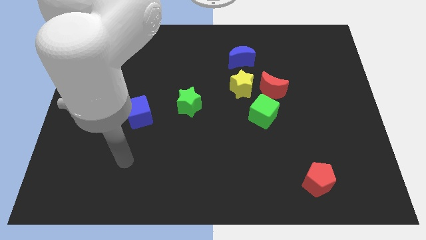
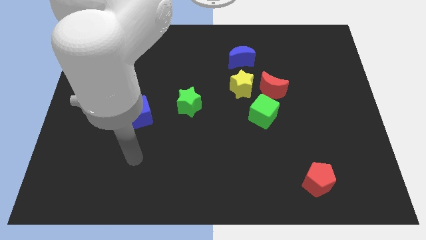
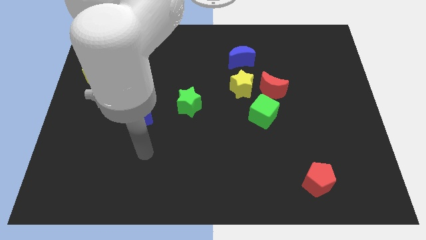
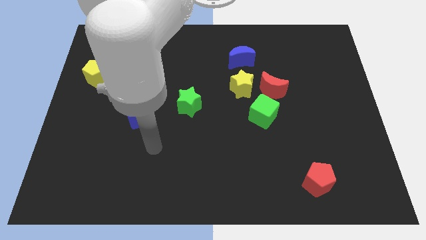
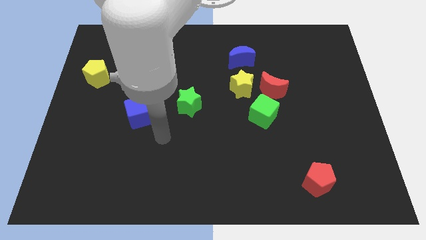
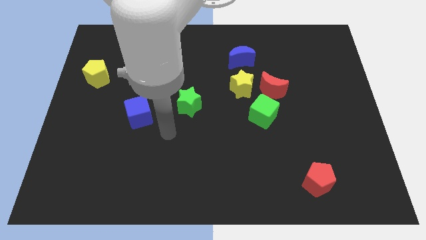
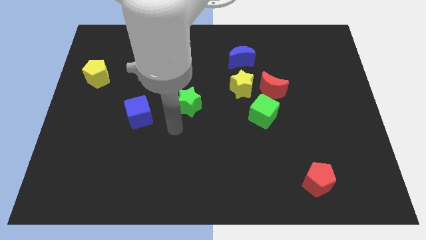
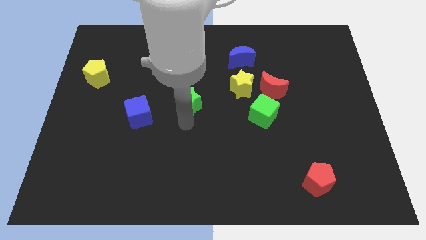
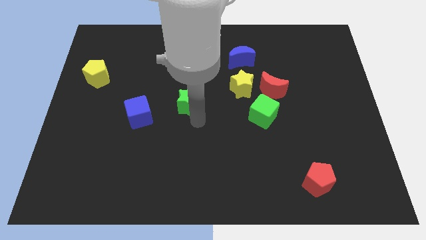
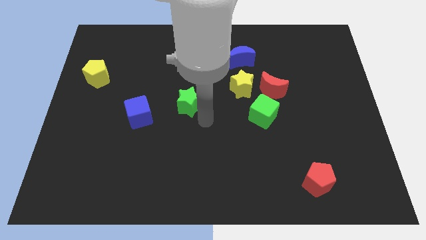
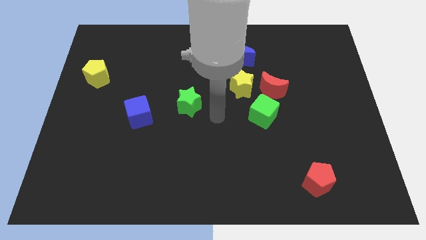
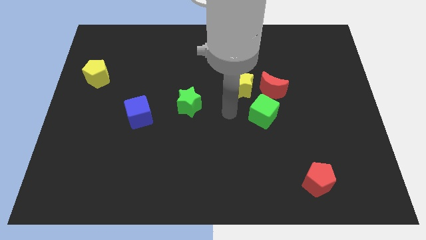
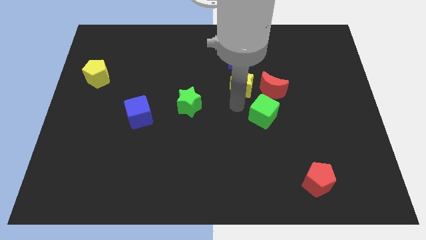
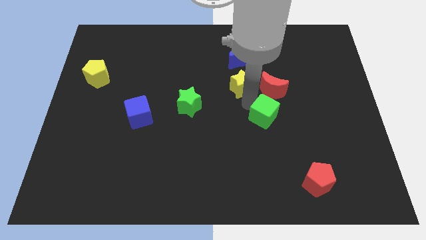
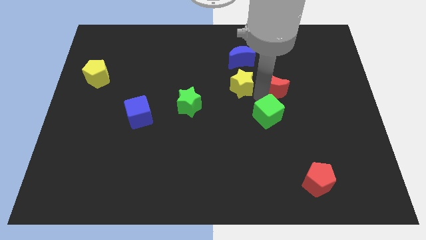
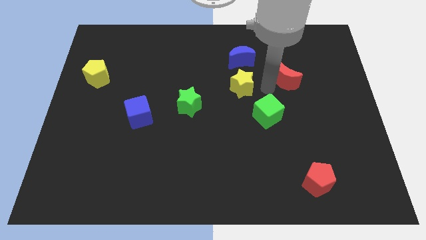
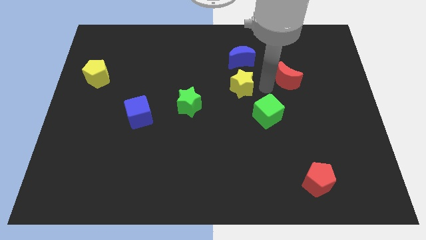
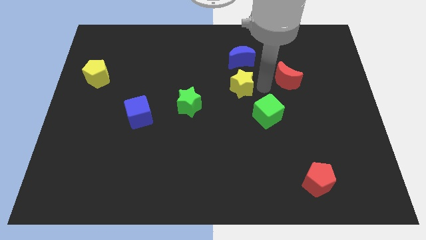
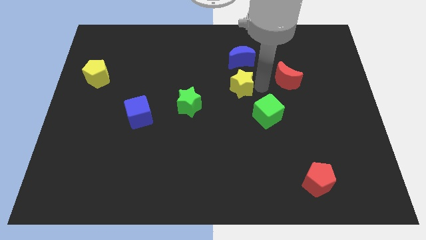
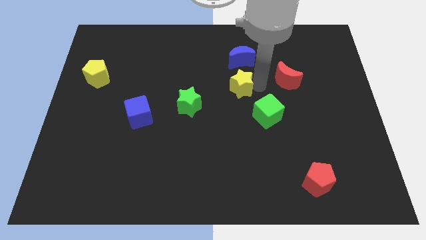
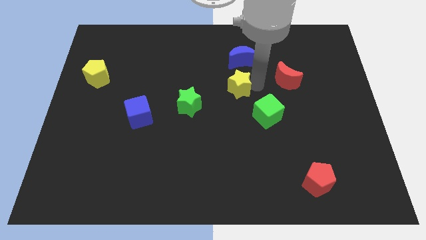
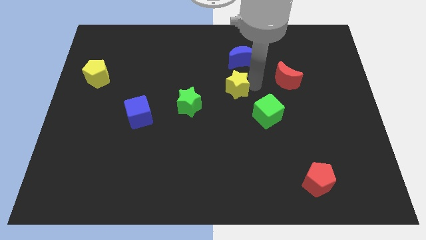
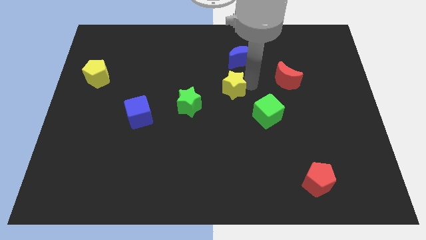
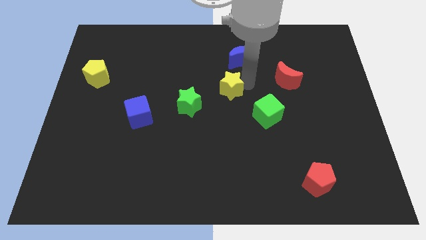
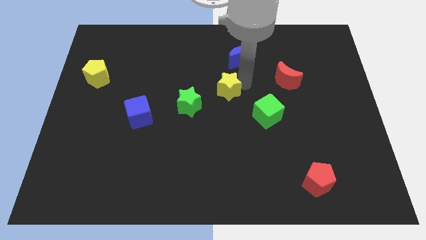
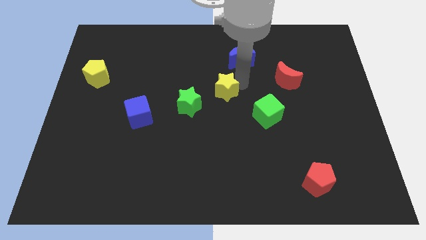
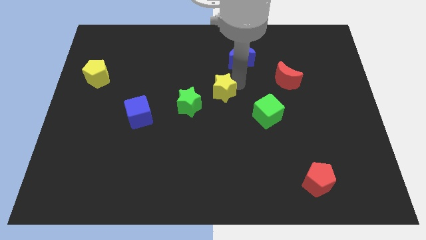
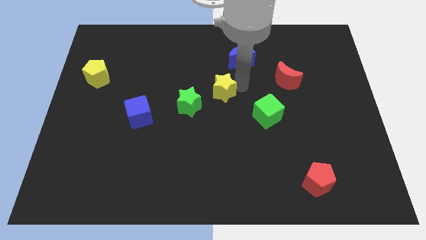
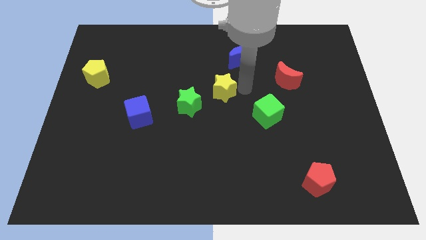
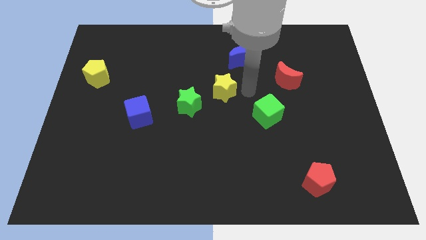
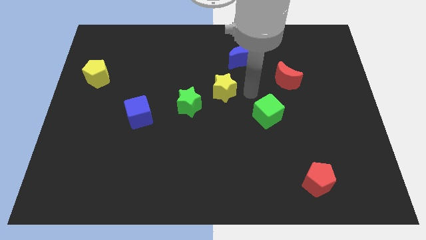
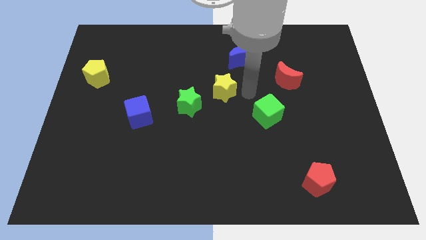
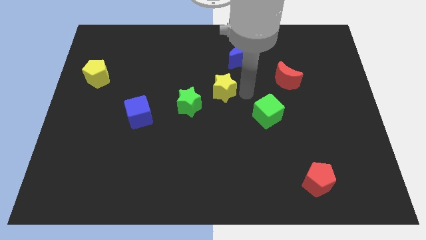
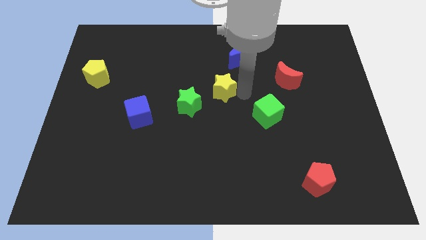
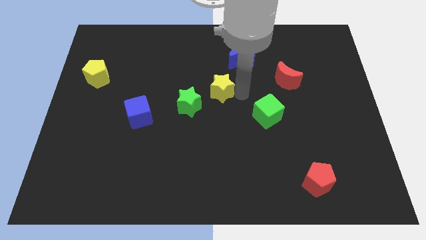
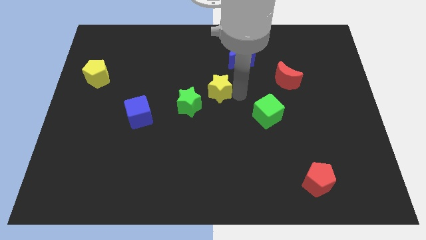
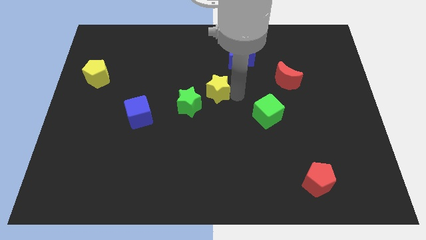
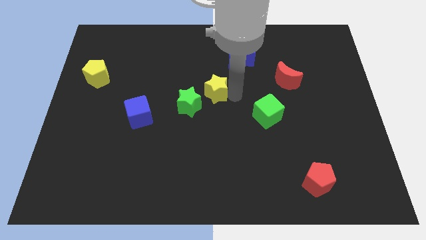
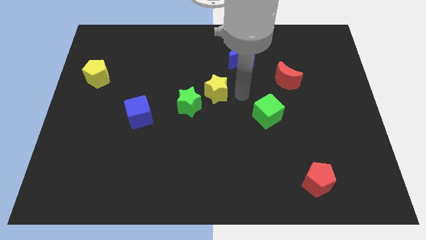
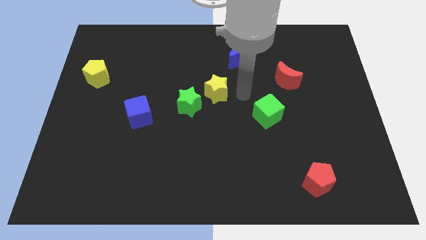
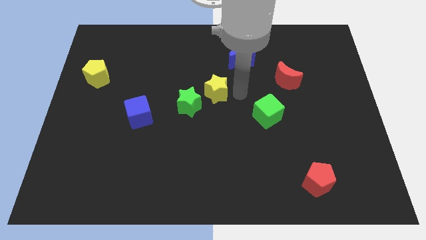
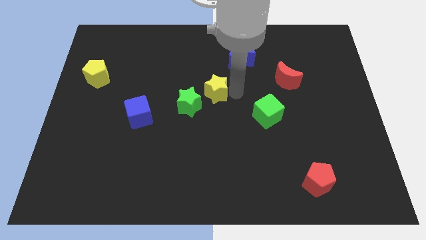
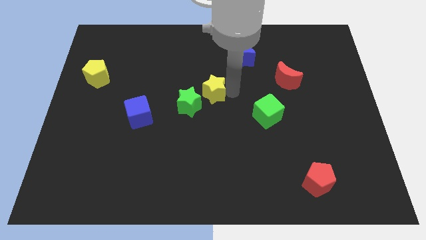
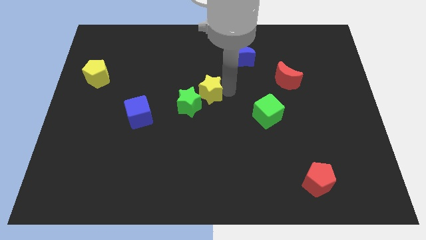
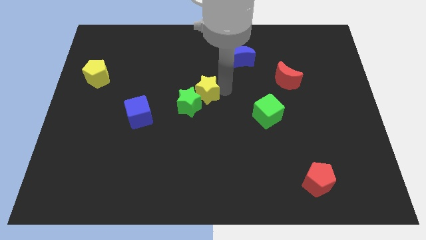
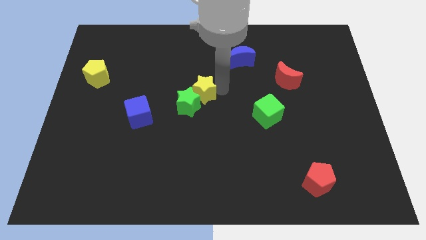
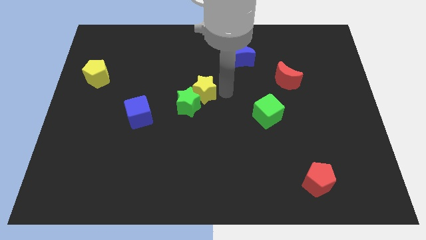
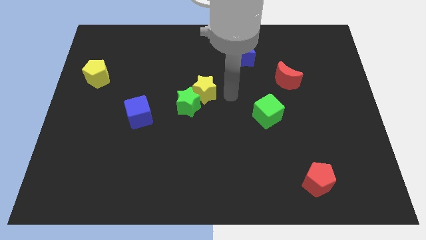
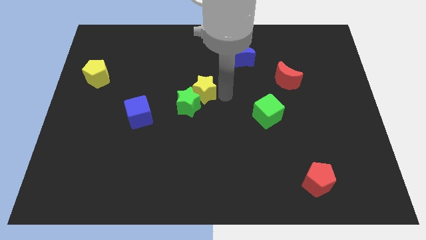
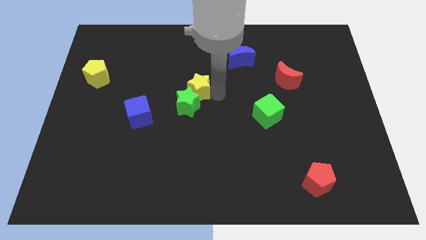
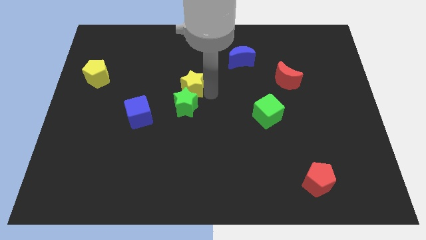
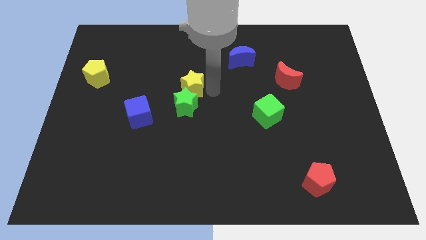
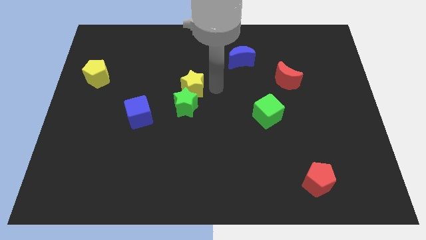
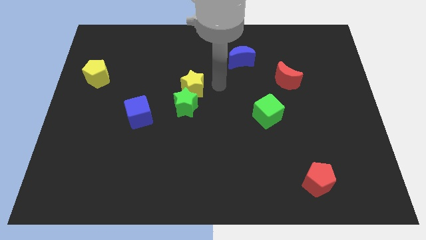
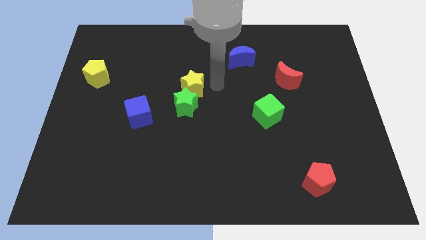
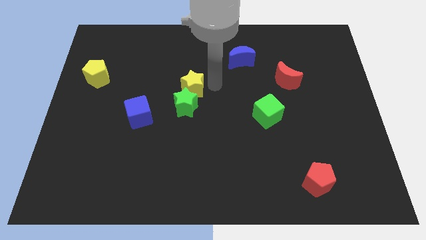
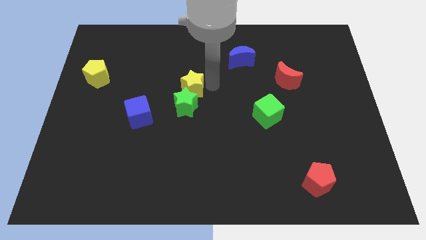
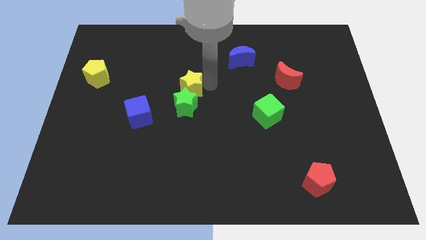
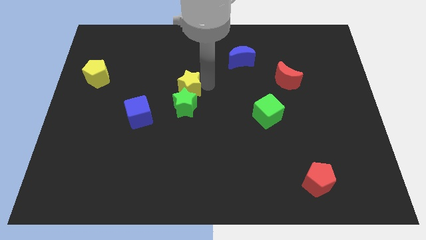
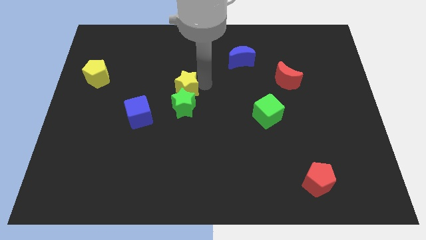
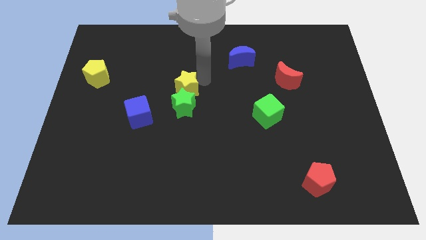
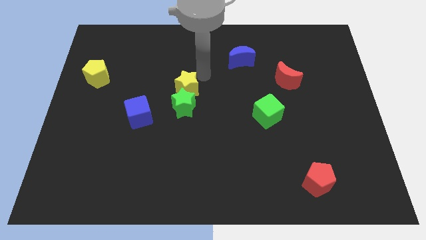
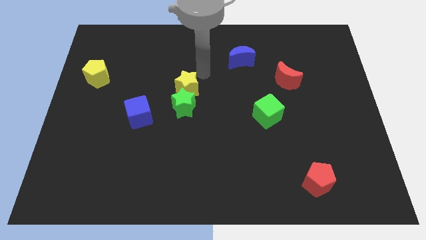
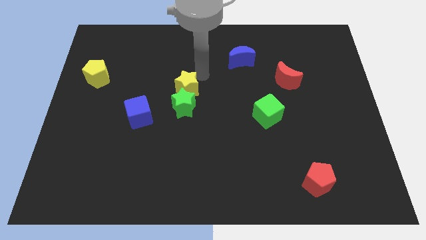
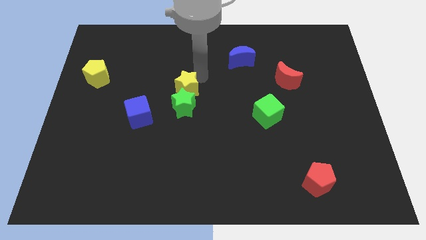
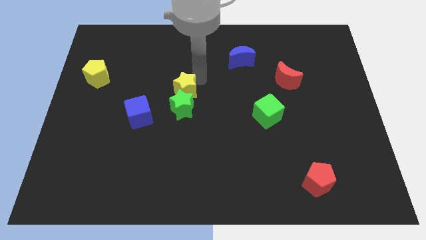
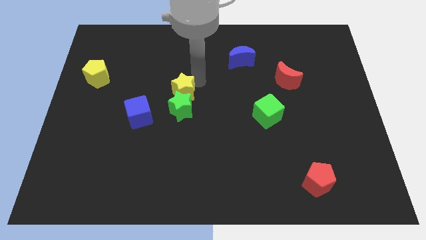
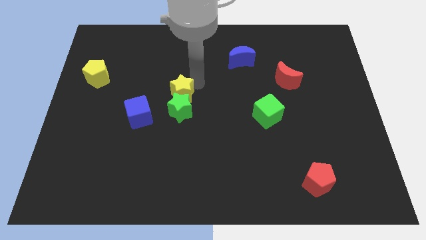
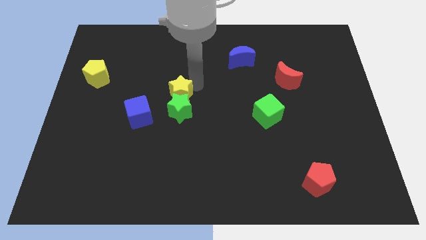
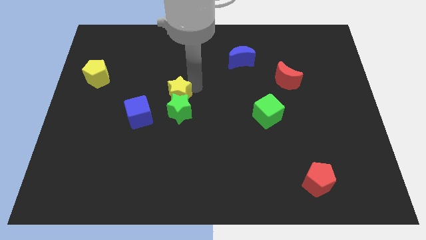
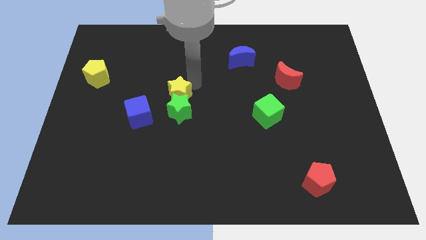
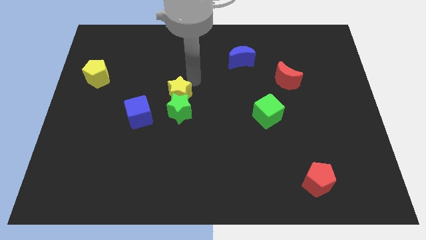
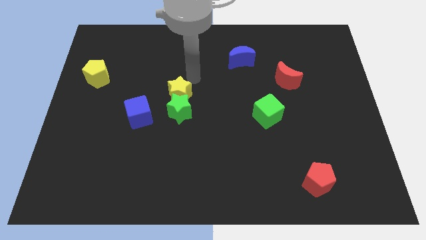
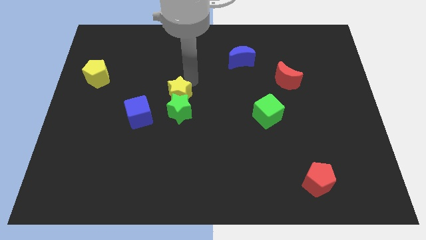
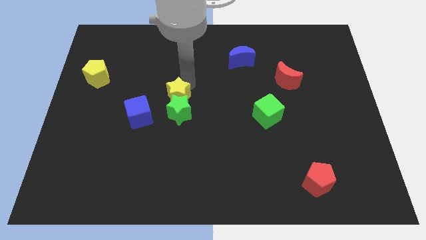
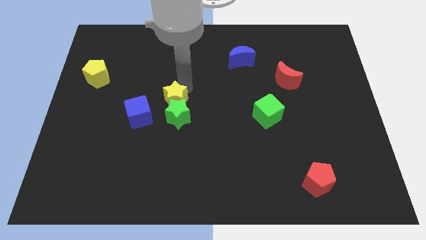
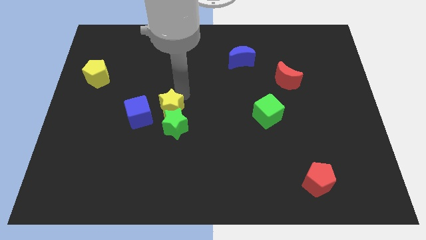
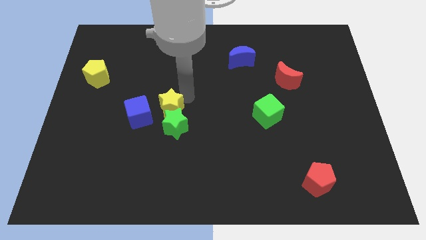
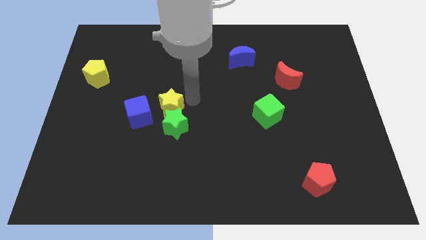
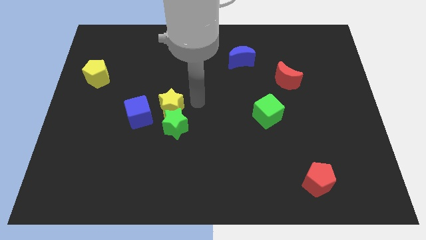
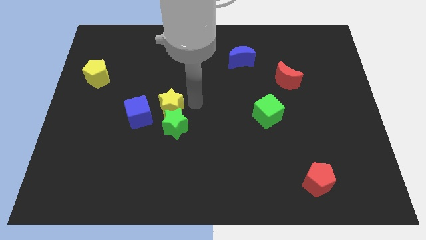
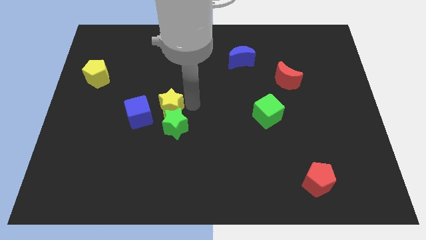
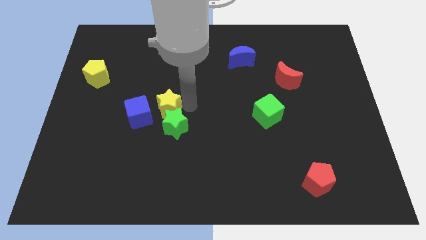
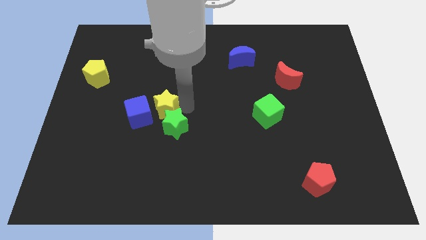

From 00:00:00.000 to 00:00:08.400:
move the yellow star next to the blue cube
